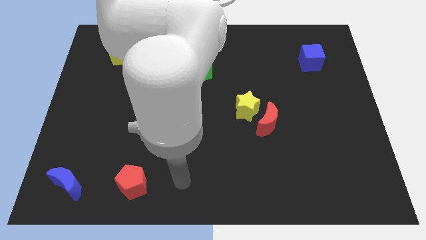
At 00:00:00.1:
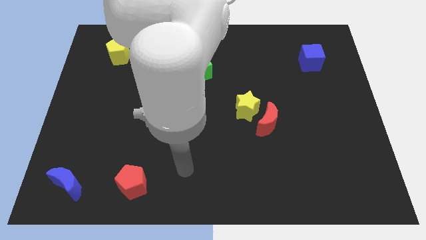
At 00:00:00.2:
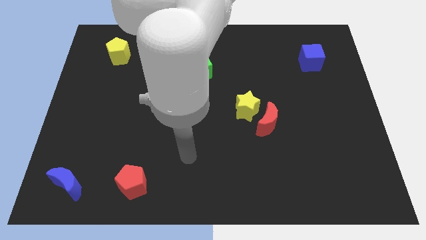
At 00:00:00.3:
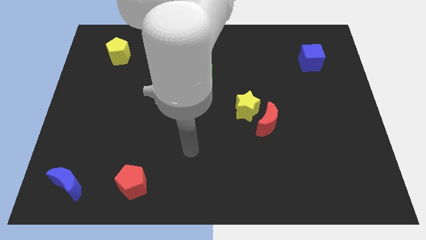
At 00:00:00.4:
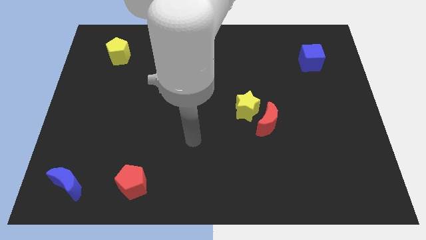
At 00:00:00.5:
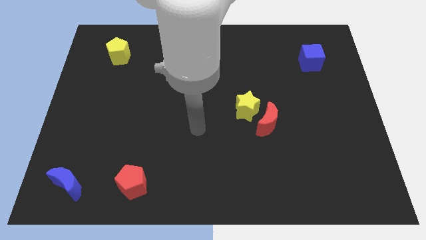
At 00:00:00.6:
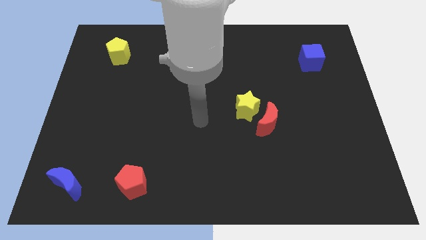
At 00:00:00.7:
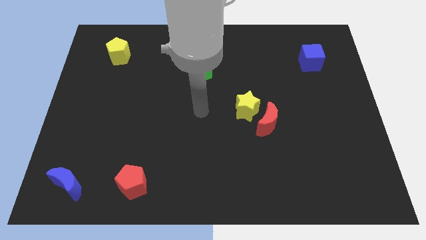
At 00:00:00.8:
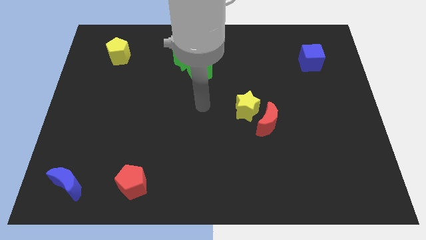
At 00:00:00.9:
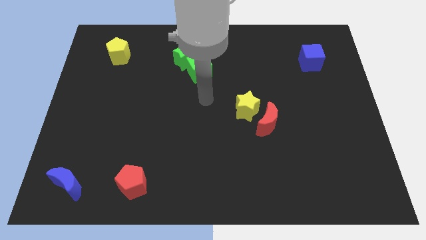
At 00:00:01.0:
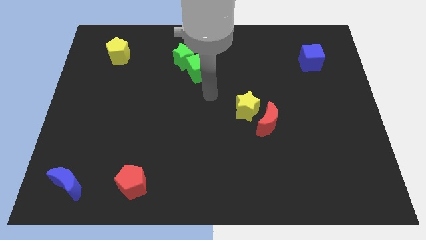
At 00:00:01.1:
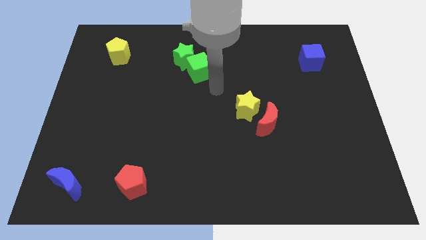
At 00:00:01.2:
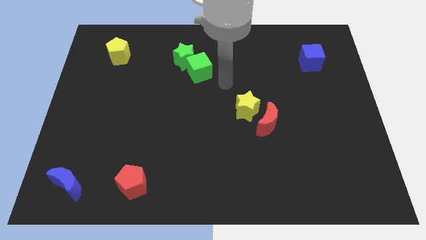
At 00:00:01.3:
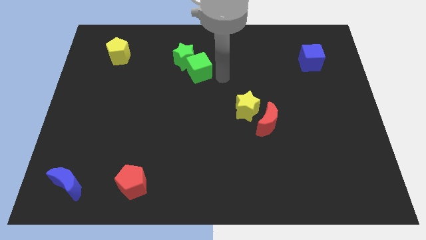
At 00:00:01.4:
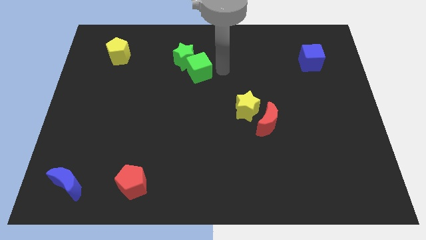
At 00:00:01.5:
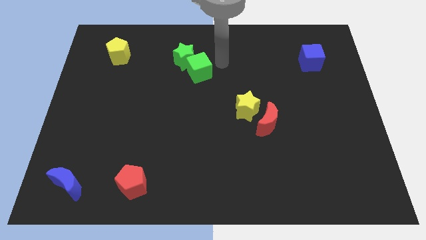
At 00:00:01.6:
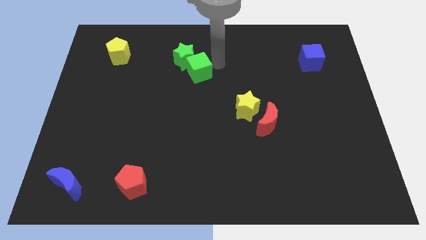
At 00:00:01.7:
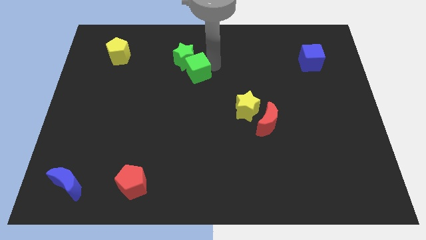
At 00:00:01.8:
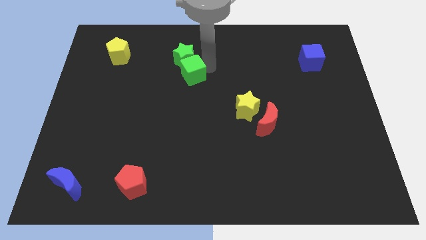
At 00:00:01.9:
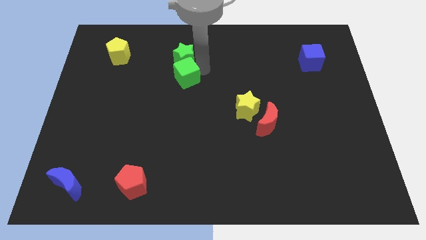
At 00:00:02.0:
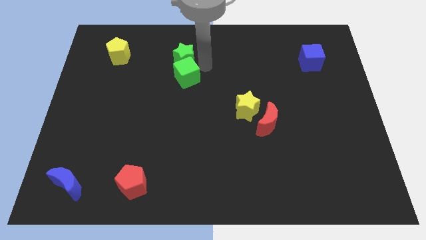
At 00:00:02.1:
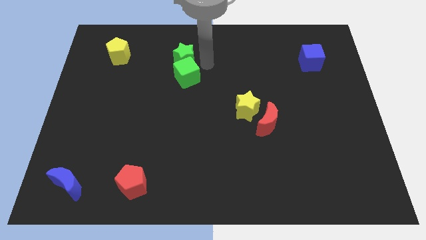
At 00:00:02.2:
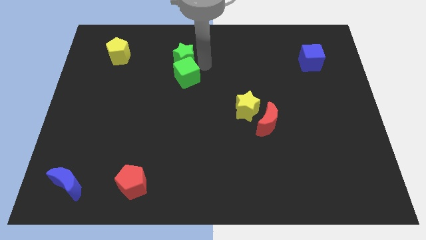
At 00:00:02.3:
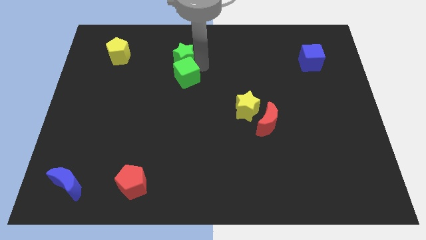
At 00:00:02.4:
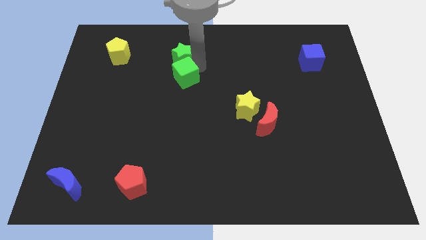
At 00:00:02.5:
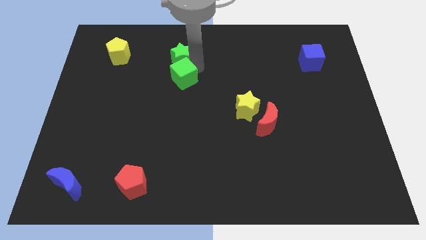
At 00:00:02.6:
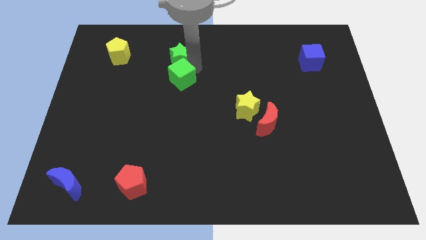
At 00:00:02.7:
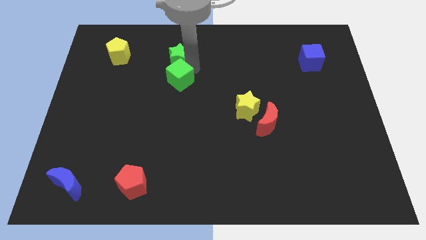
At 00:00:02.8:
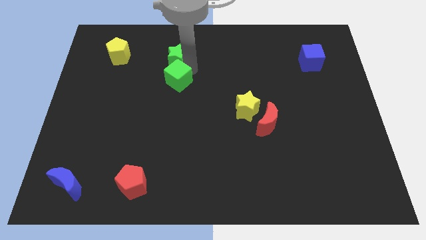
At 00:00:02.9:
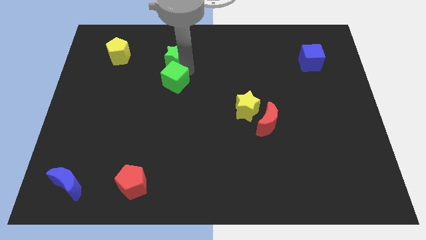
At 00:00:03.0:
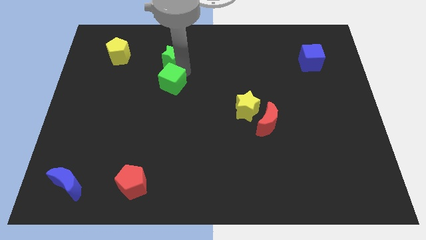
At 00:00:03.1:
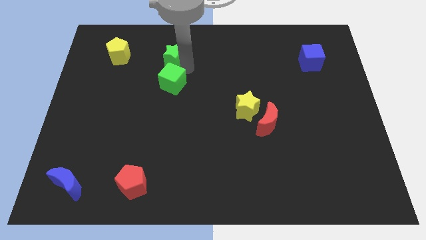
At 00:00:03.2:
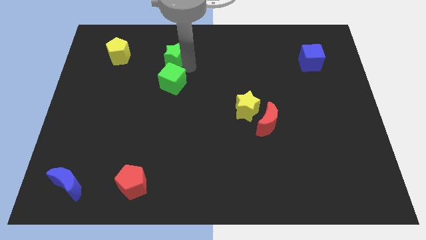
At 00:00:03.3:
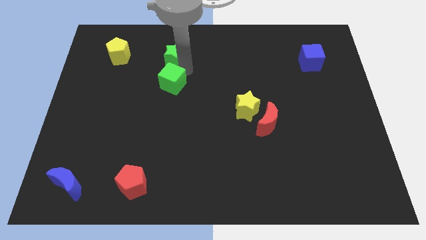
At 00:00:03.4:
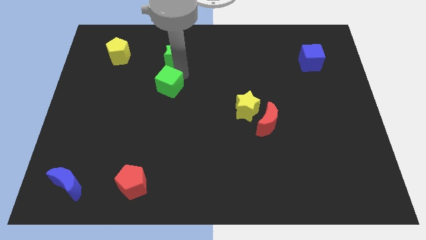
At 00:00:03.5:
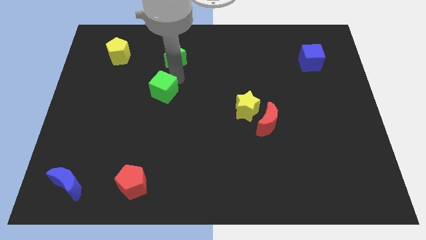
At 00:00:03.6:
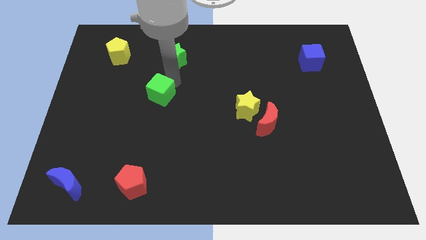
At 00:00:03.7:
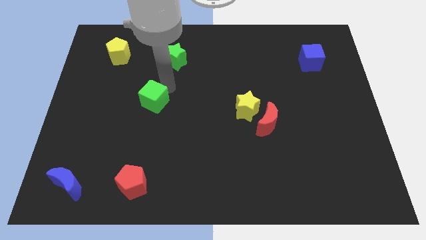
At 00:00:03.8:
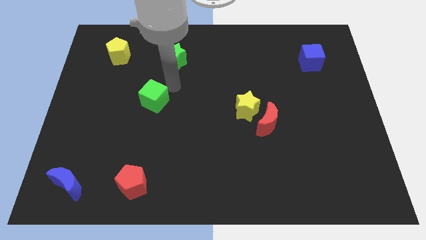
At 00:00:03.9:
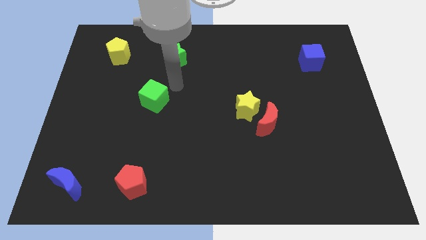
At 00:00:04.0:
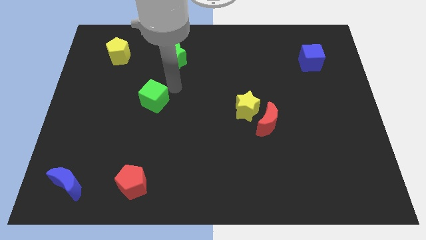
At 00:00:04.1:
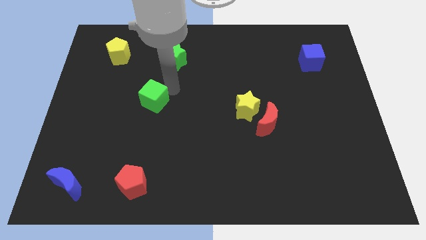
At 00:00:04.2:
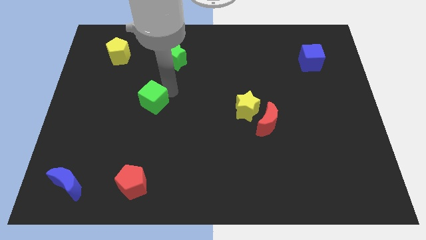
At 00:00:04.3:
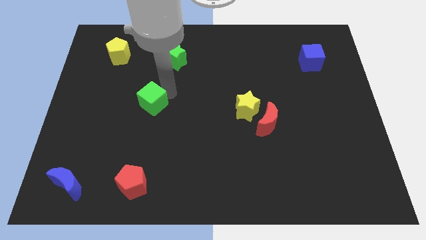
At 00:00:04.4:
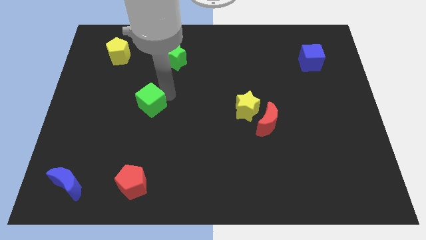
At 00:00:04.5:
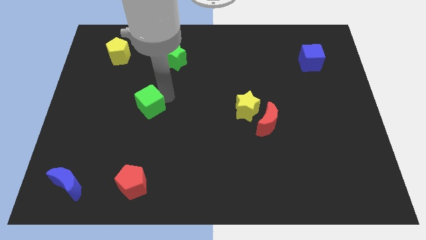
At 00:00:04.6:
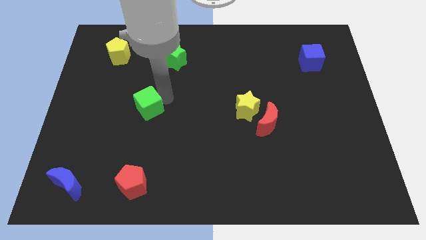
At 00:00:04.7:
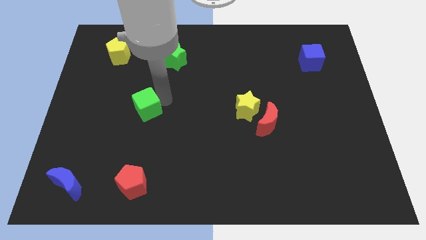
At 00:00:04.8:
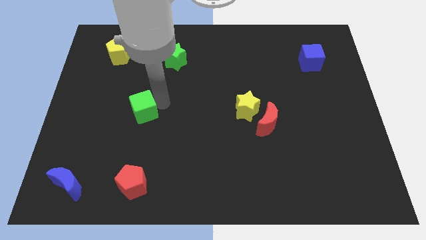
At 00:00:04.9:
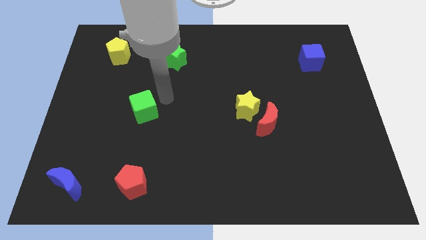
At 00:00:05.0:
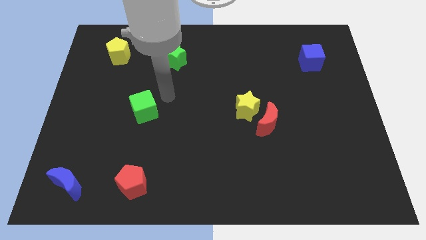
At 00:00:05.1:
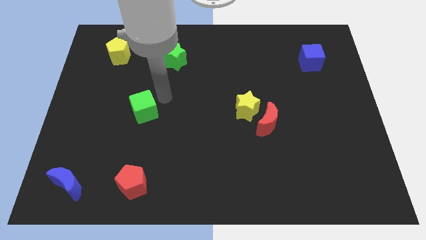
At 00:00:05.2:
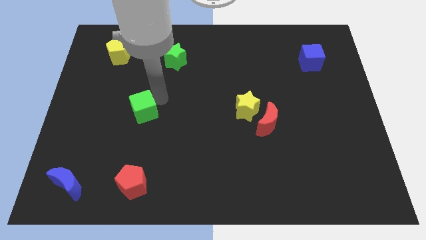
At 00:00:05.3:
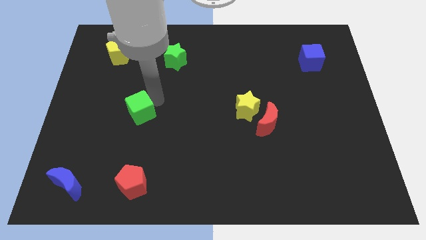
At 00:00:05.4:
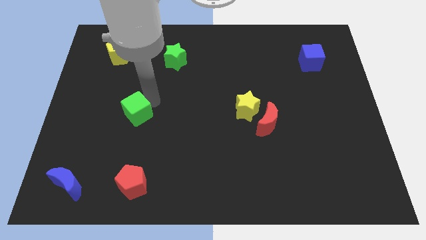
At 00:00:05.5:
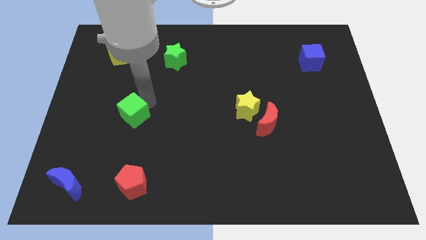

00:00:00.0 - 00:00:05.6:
push the green cube diagonally down and to the left

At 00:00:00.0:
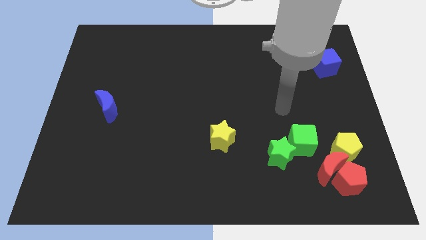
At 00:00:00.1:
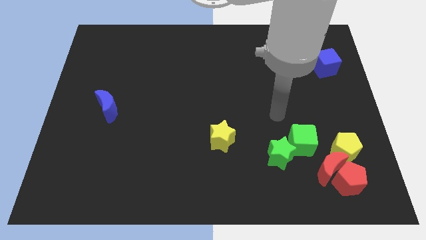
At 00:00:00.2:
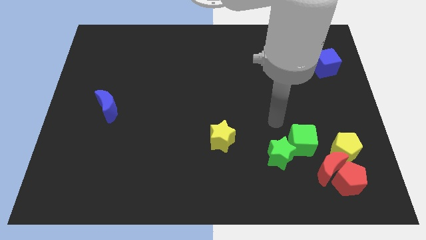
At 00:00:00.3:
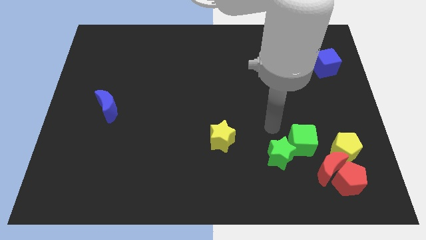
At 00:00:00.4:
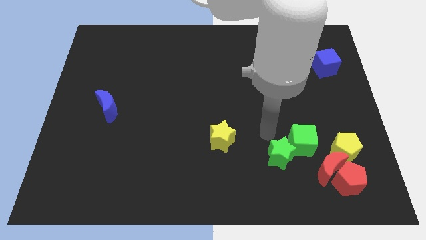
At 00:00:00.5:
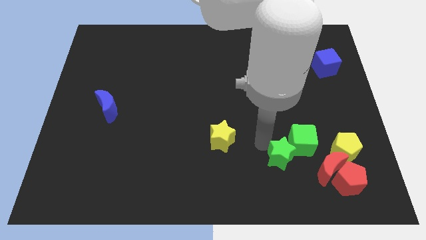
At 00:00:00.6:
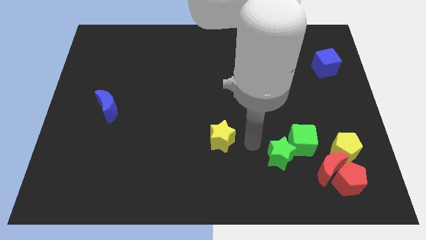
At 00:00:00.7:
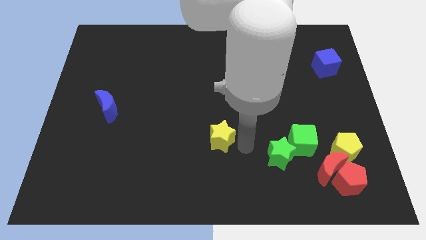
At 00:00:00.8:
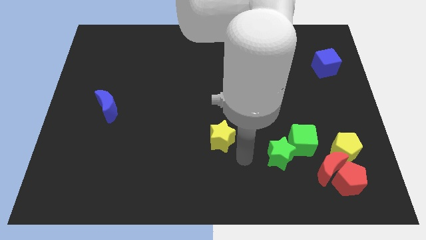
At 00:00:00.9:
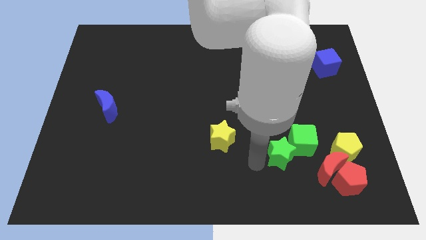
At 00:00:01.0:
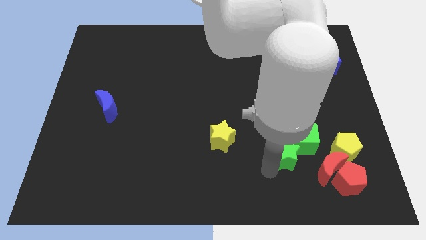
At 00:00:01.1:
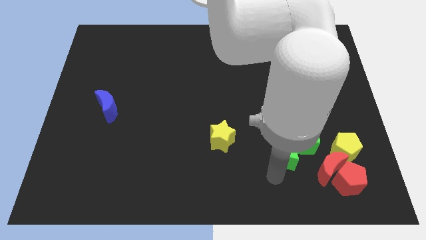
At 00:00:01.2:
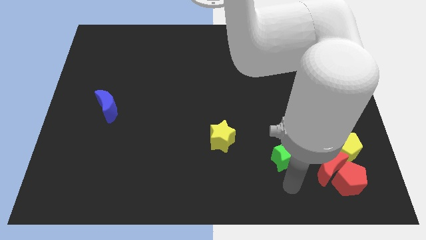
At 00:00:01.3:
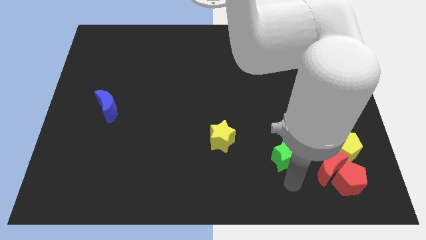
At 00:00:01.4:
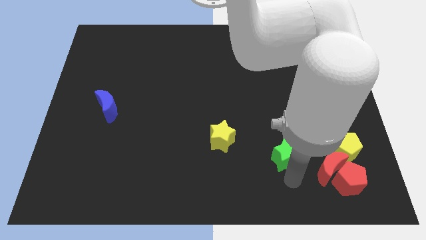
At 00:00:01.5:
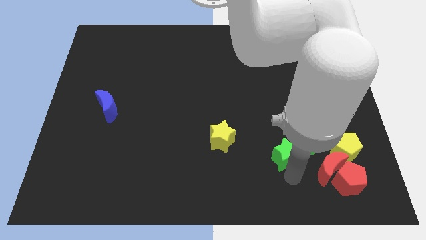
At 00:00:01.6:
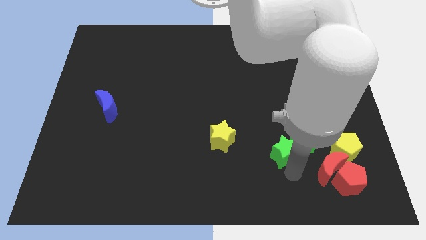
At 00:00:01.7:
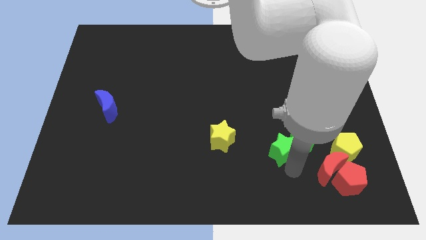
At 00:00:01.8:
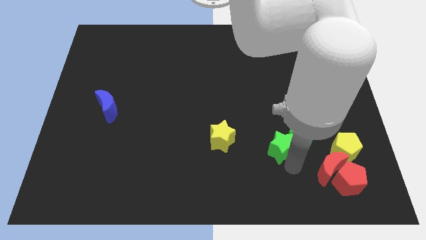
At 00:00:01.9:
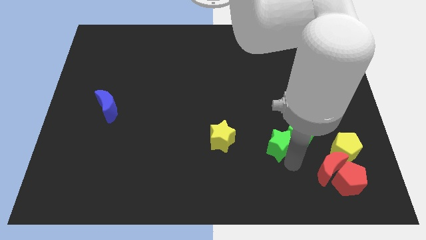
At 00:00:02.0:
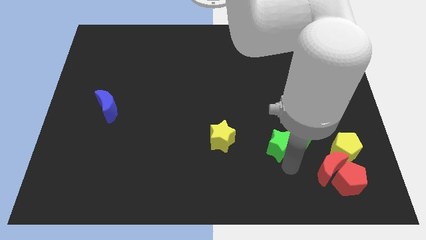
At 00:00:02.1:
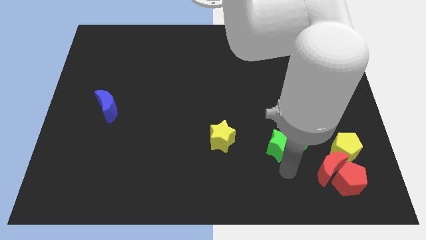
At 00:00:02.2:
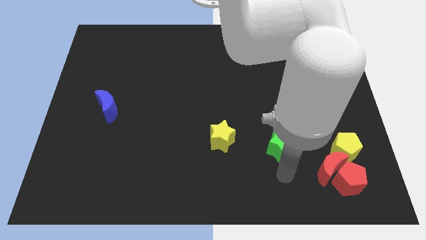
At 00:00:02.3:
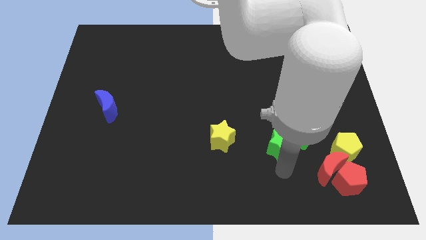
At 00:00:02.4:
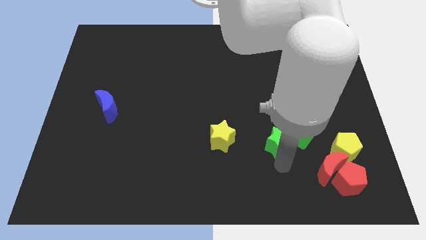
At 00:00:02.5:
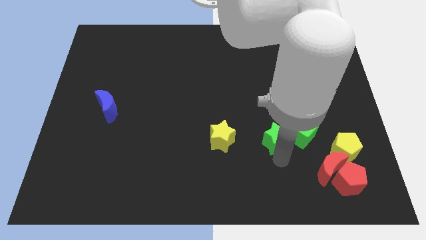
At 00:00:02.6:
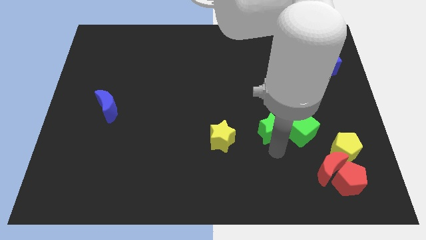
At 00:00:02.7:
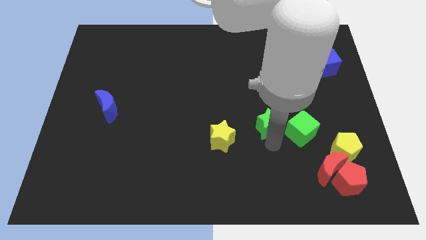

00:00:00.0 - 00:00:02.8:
push the green star up a little bit
